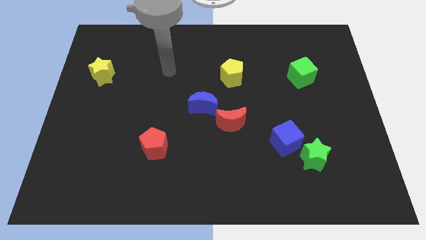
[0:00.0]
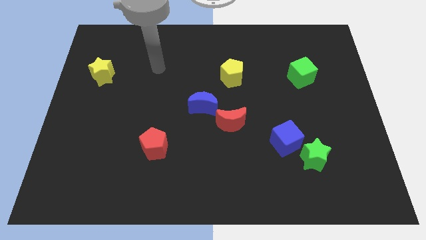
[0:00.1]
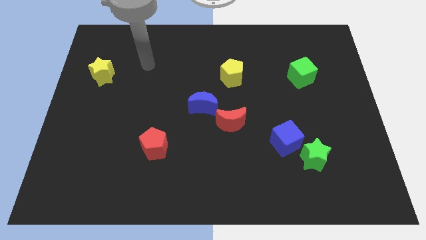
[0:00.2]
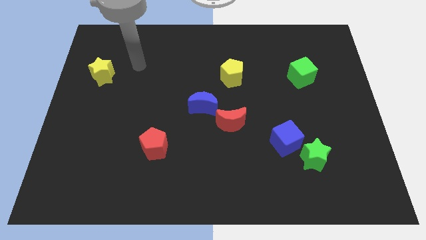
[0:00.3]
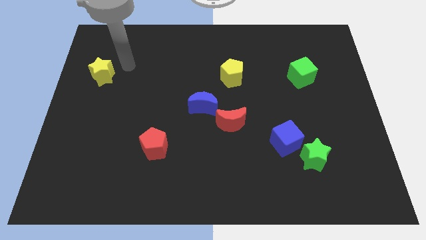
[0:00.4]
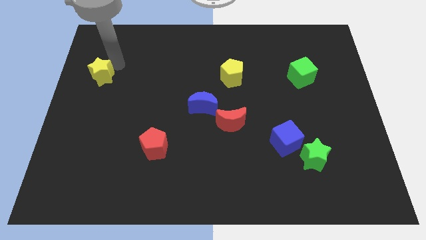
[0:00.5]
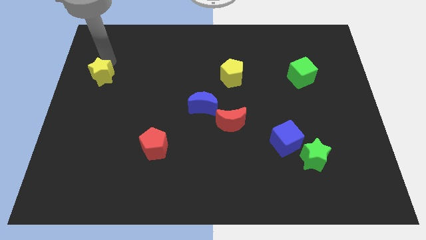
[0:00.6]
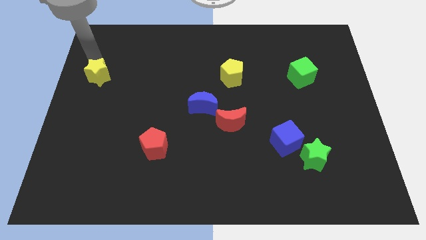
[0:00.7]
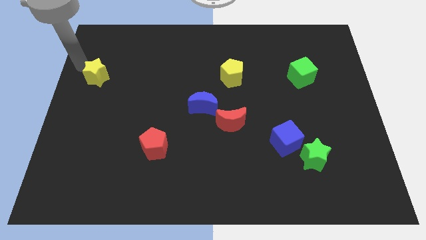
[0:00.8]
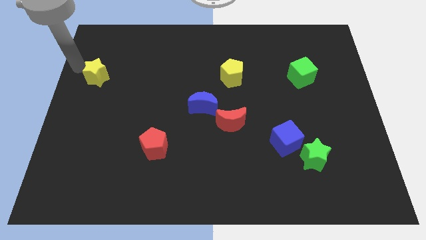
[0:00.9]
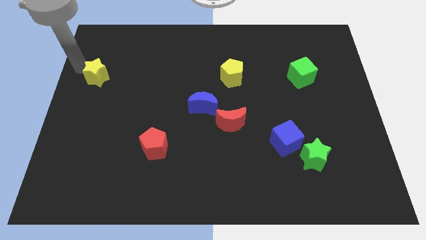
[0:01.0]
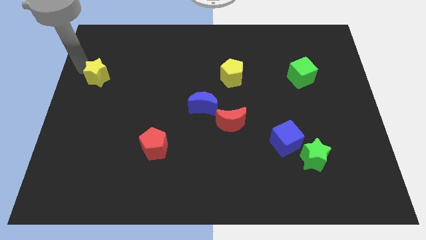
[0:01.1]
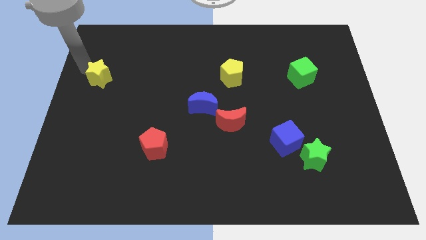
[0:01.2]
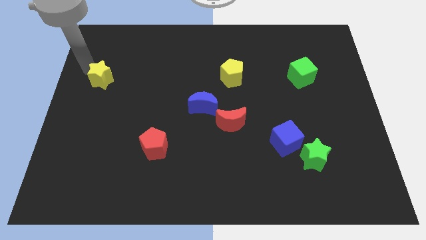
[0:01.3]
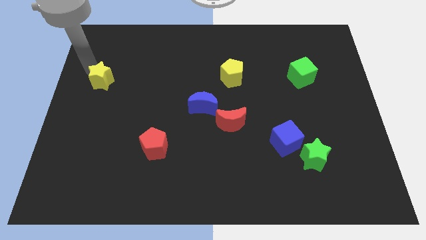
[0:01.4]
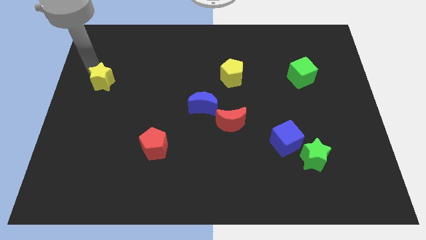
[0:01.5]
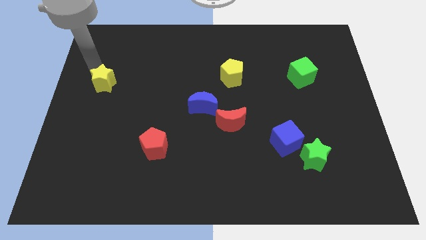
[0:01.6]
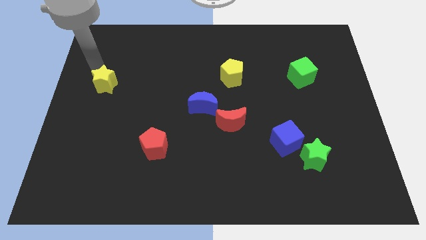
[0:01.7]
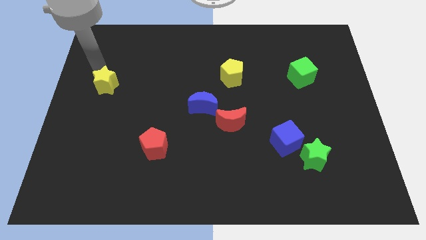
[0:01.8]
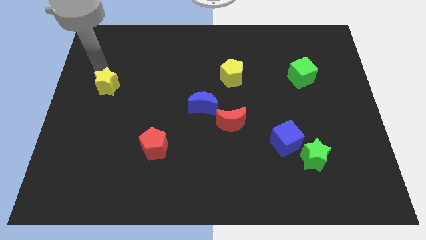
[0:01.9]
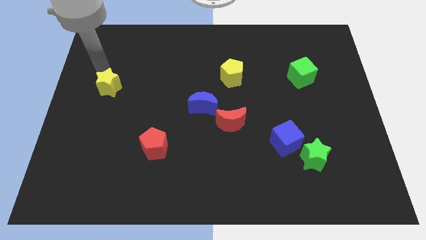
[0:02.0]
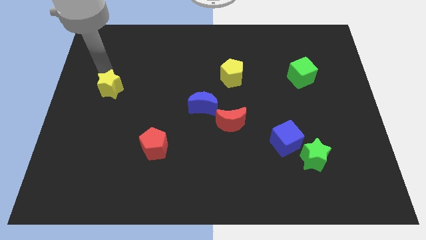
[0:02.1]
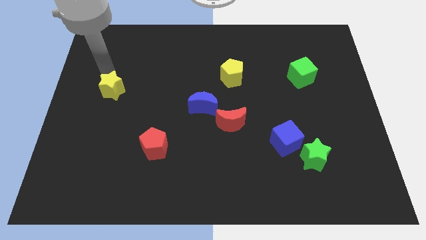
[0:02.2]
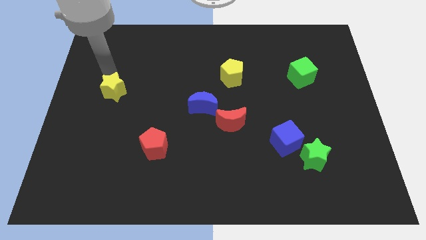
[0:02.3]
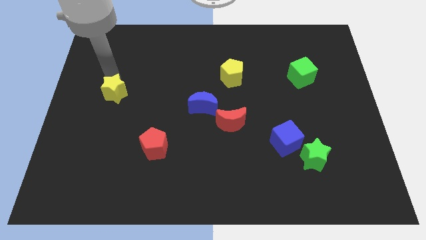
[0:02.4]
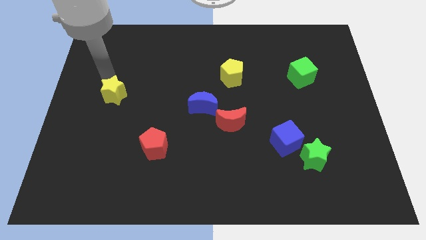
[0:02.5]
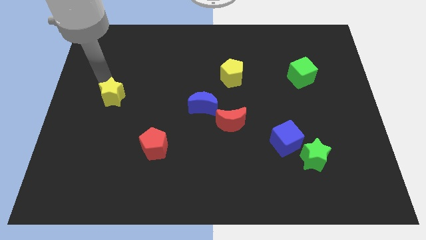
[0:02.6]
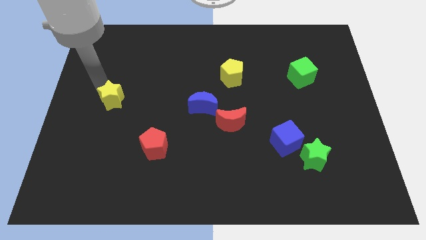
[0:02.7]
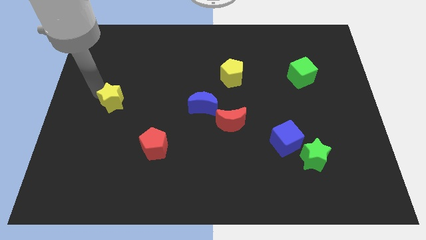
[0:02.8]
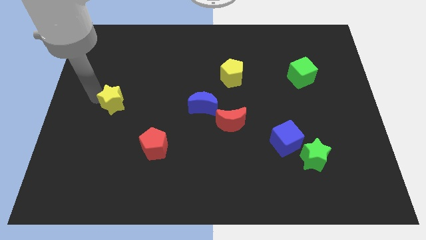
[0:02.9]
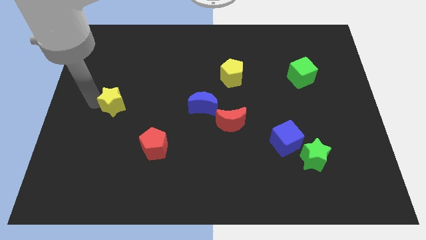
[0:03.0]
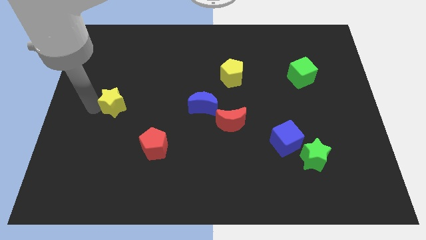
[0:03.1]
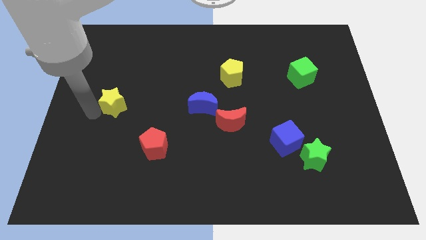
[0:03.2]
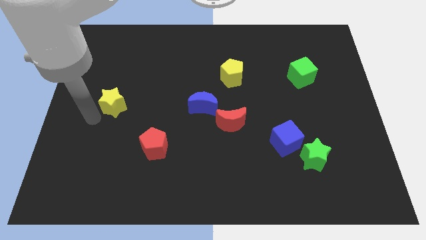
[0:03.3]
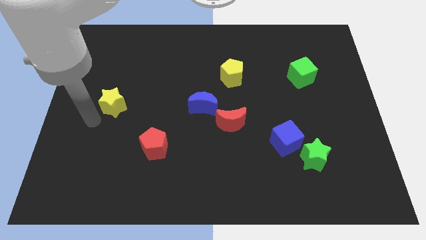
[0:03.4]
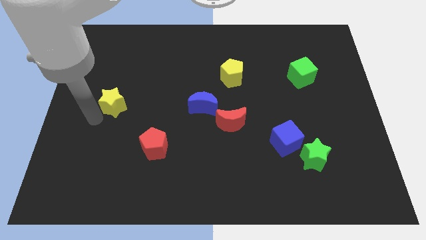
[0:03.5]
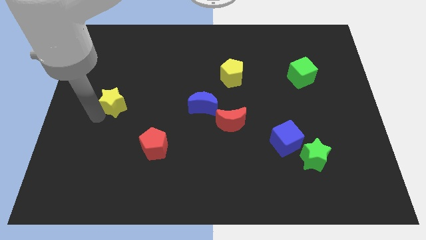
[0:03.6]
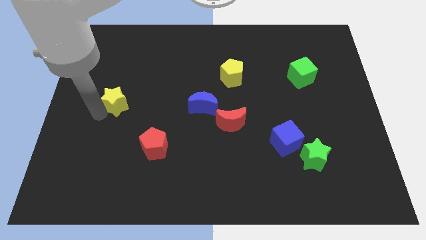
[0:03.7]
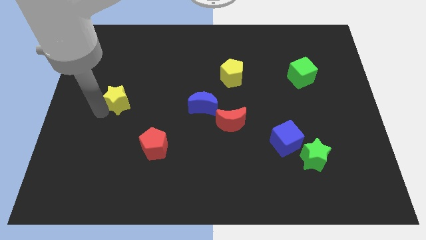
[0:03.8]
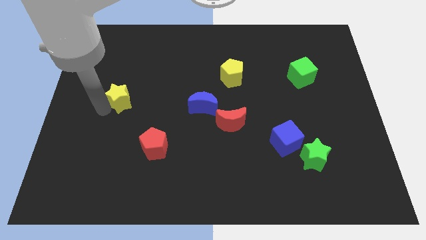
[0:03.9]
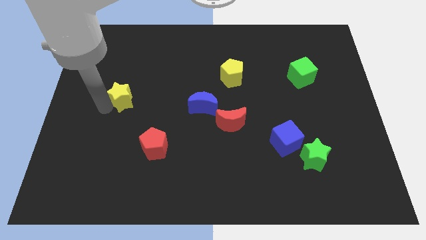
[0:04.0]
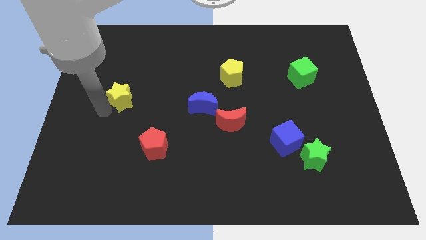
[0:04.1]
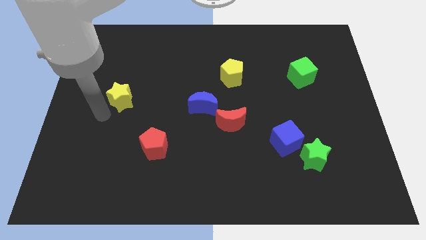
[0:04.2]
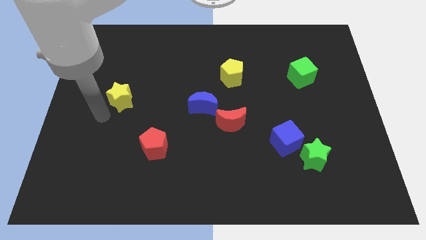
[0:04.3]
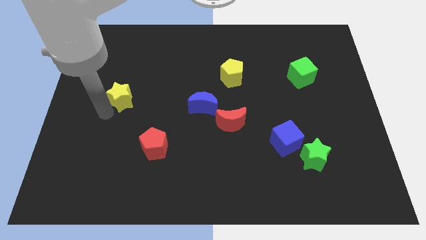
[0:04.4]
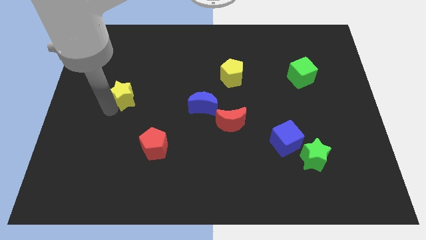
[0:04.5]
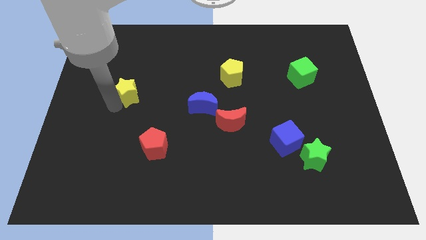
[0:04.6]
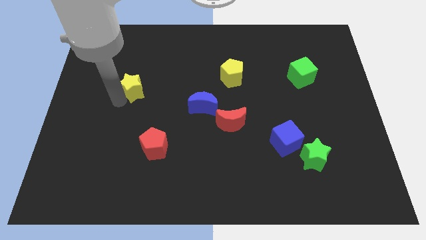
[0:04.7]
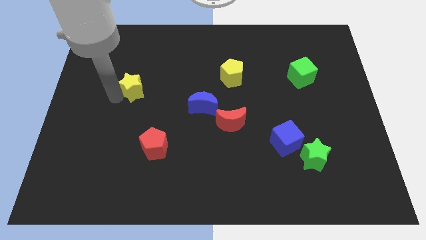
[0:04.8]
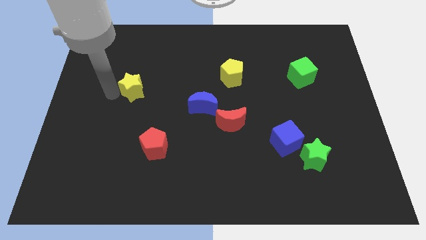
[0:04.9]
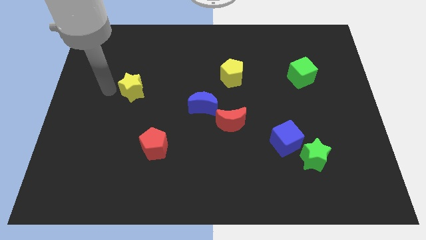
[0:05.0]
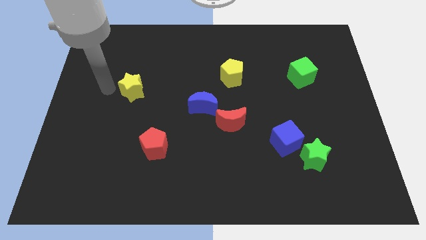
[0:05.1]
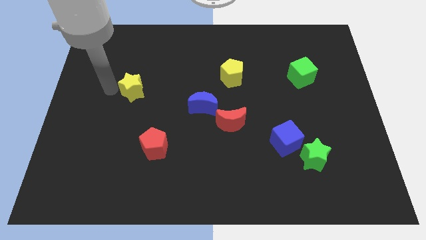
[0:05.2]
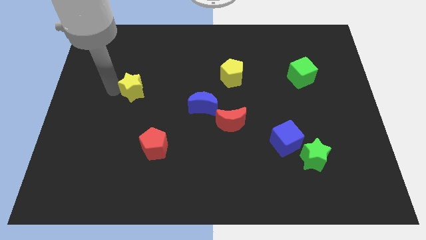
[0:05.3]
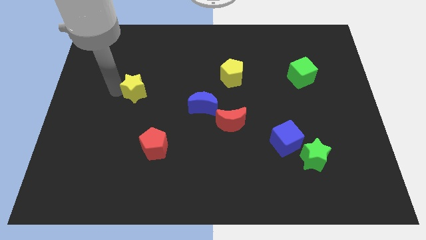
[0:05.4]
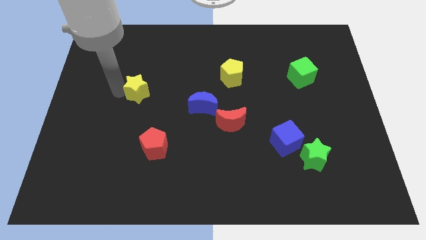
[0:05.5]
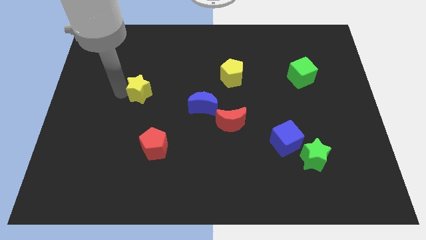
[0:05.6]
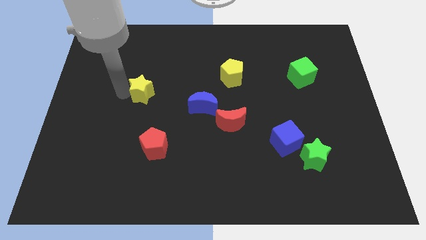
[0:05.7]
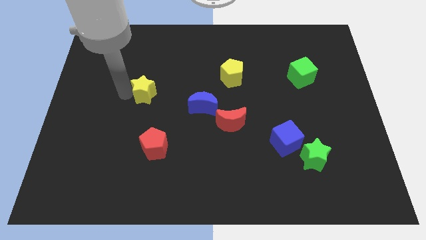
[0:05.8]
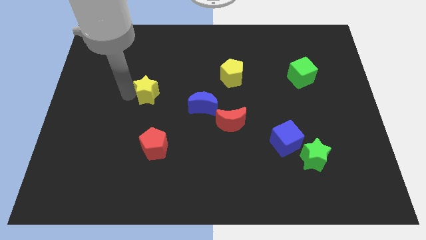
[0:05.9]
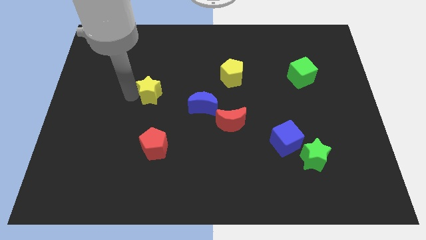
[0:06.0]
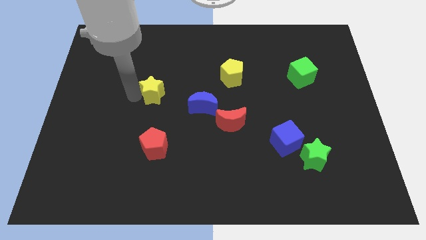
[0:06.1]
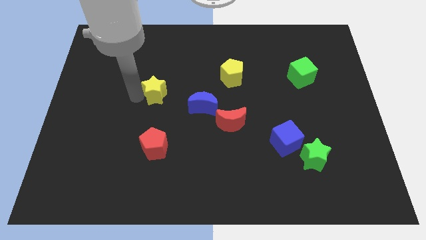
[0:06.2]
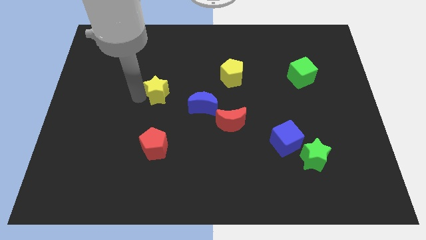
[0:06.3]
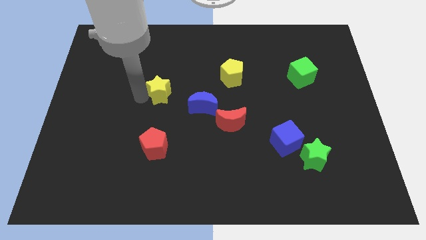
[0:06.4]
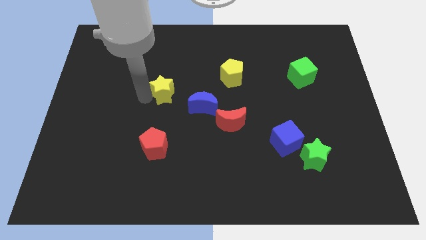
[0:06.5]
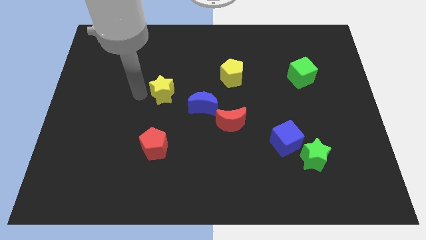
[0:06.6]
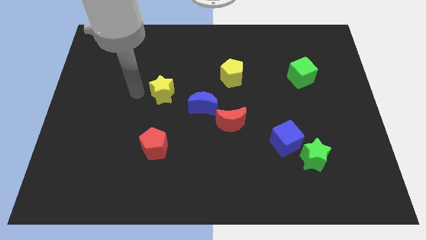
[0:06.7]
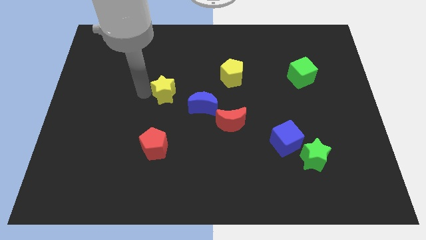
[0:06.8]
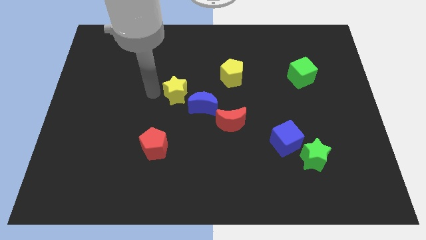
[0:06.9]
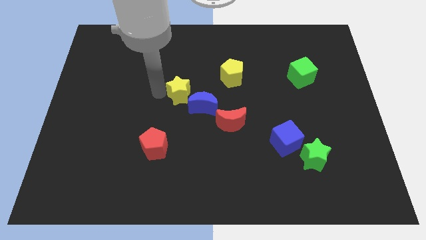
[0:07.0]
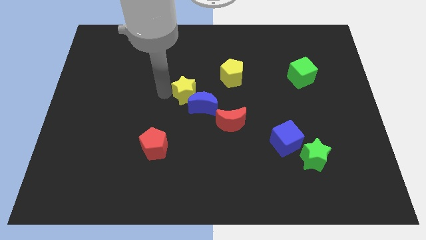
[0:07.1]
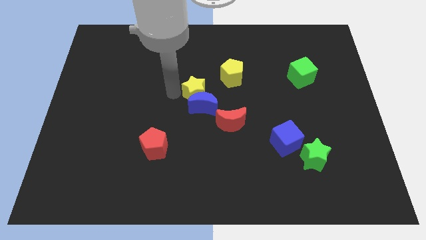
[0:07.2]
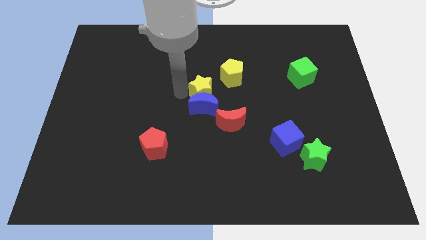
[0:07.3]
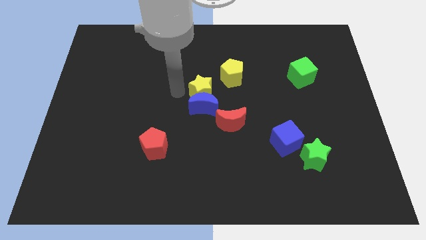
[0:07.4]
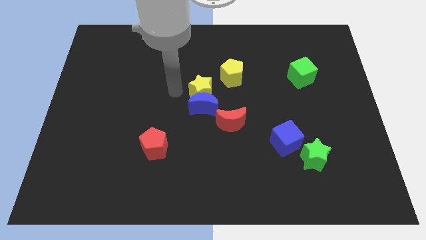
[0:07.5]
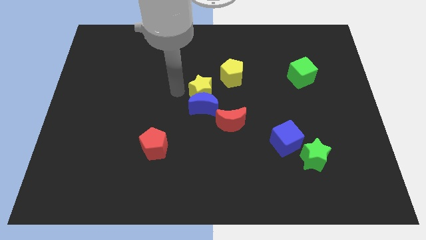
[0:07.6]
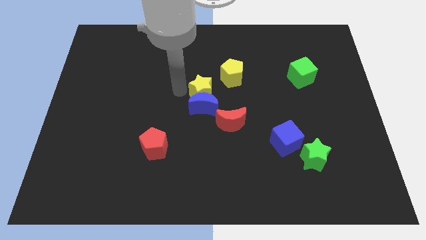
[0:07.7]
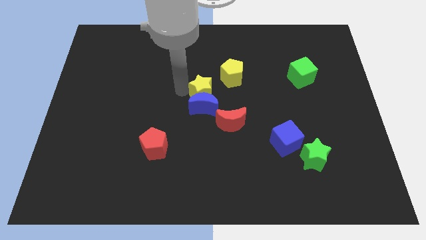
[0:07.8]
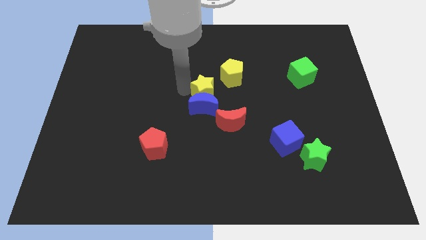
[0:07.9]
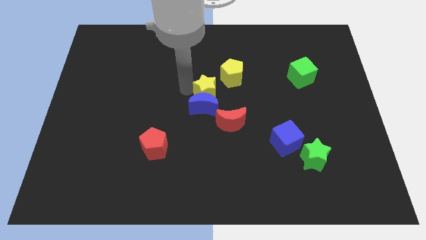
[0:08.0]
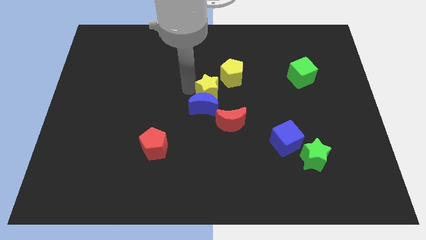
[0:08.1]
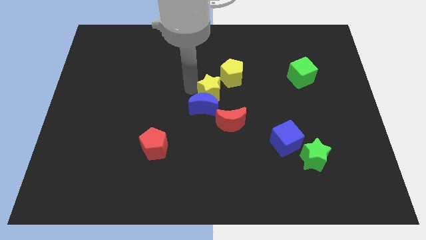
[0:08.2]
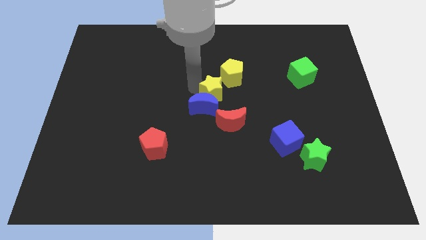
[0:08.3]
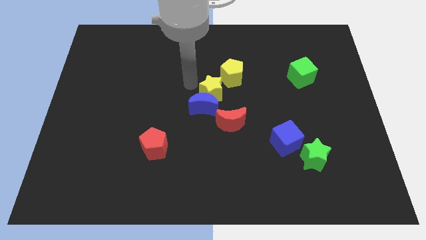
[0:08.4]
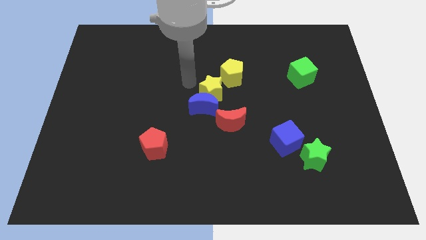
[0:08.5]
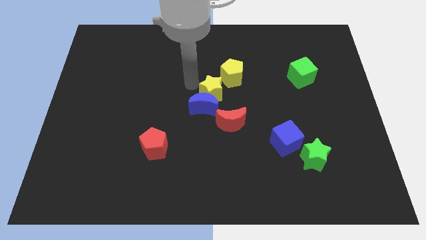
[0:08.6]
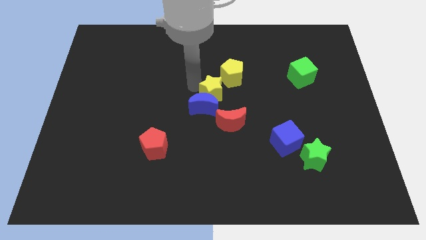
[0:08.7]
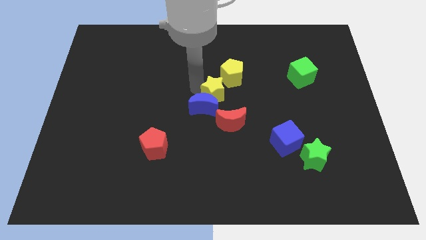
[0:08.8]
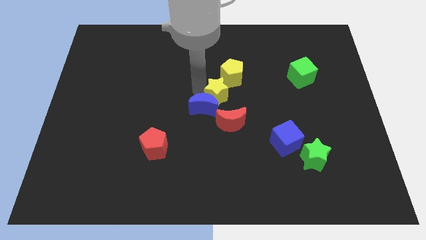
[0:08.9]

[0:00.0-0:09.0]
push the yellow star just right of the blue moon
